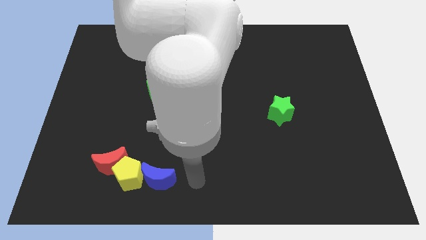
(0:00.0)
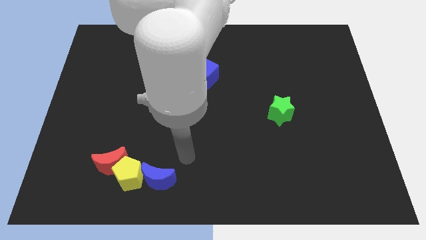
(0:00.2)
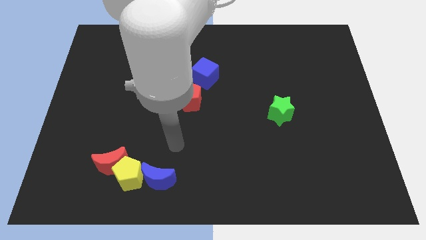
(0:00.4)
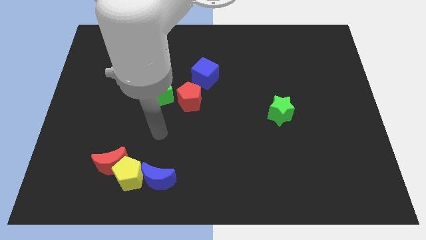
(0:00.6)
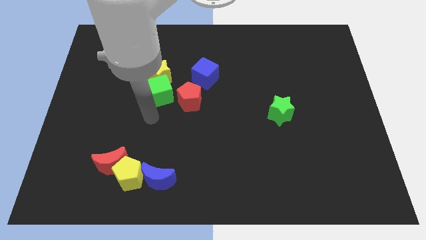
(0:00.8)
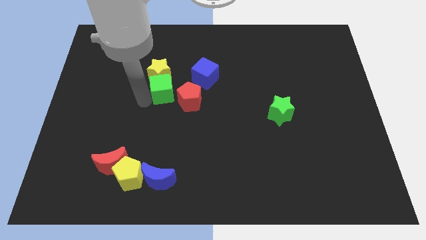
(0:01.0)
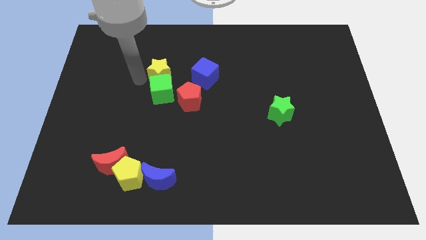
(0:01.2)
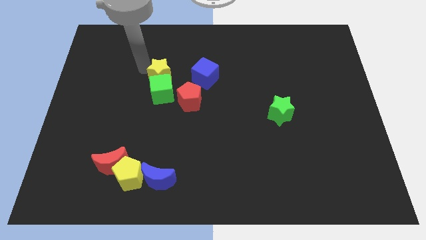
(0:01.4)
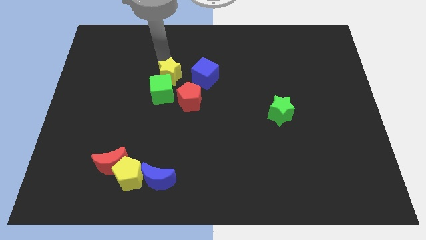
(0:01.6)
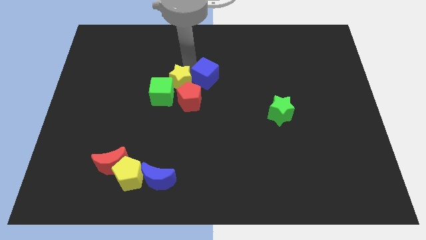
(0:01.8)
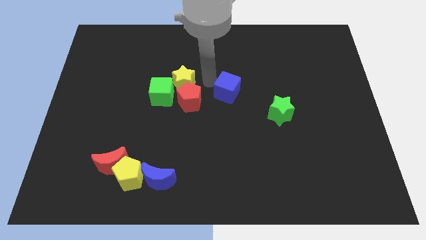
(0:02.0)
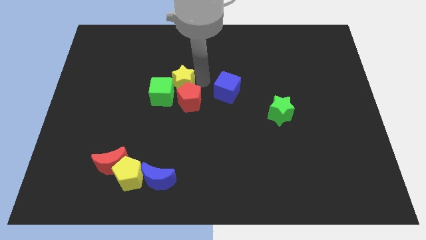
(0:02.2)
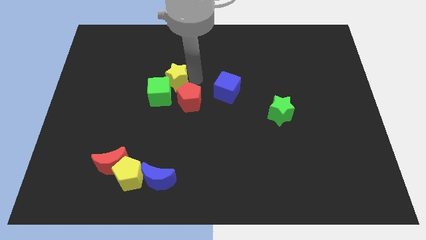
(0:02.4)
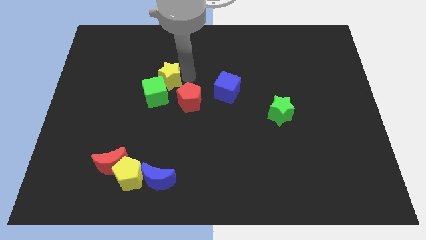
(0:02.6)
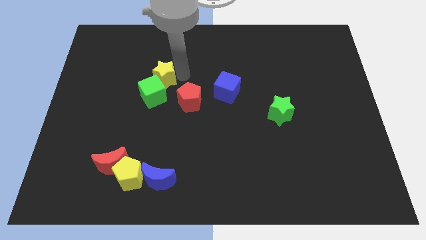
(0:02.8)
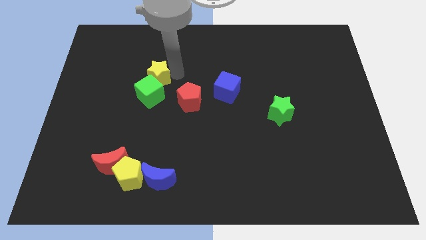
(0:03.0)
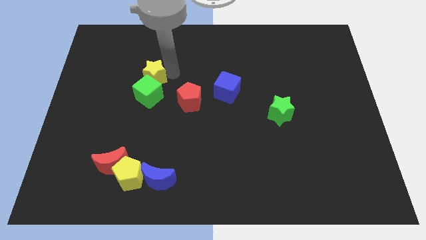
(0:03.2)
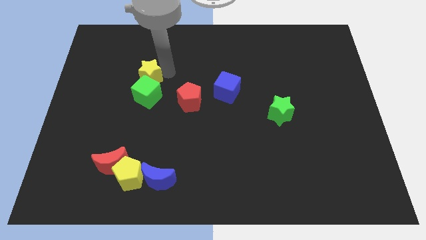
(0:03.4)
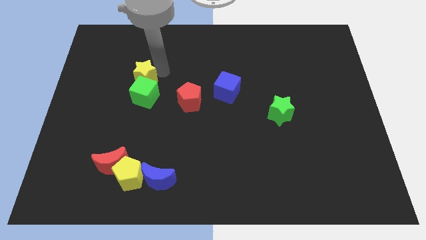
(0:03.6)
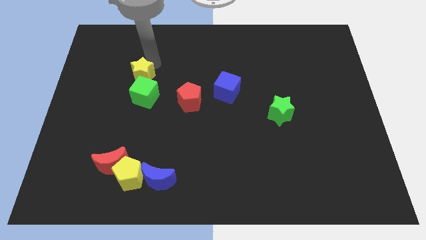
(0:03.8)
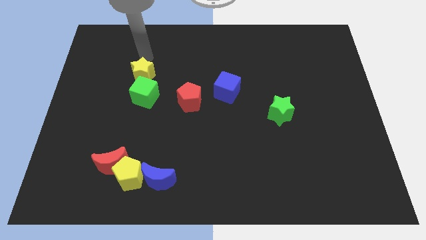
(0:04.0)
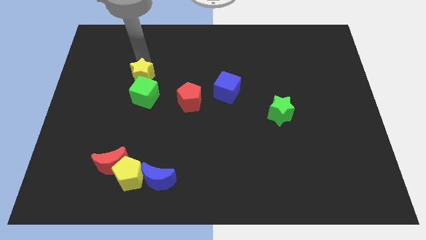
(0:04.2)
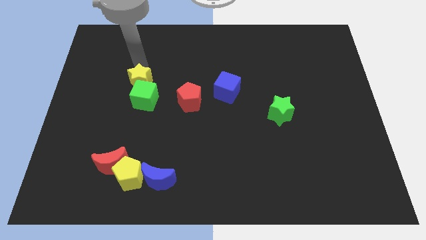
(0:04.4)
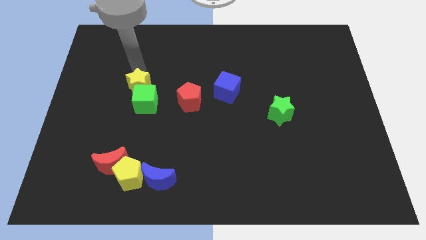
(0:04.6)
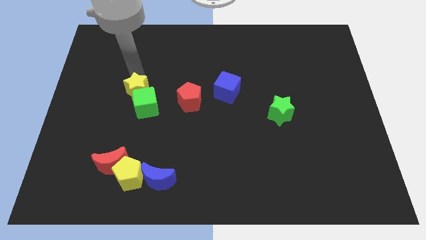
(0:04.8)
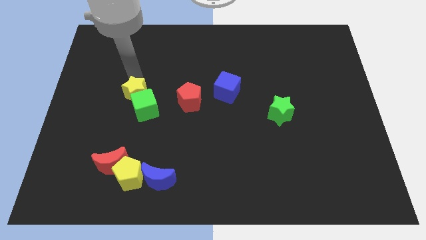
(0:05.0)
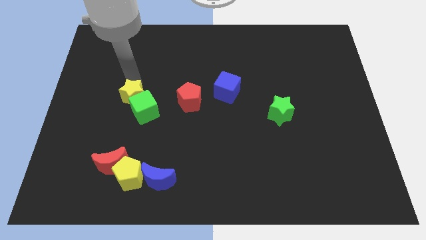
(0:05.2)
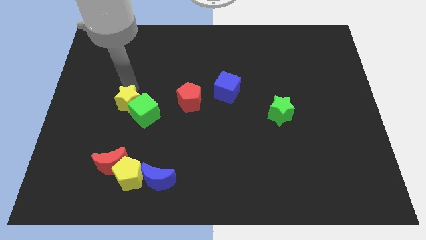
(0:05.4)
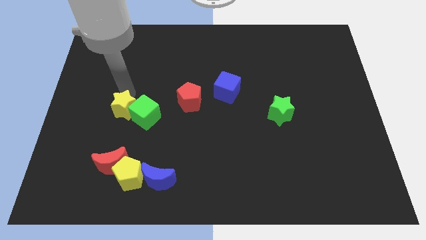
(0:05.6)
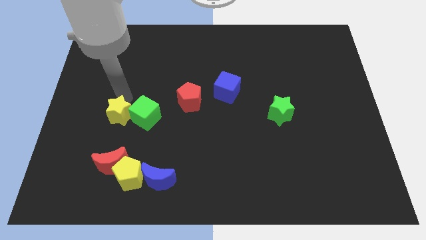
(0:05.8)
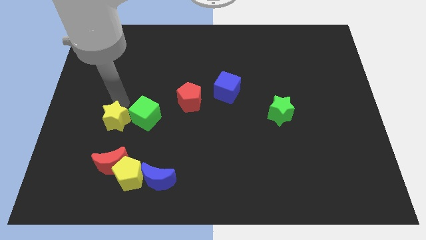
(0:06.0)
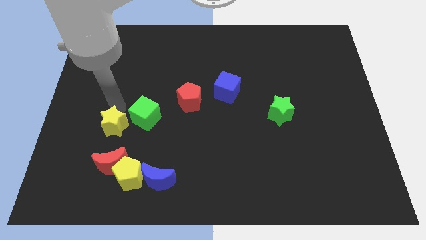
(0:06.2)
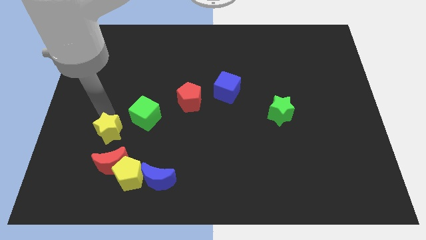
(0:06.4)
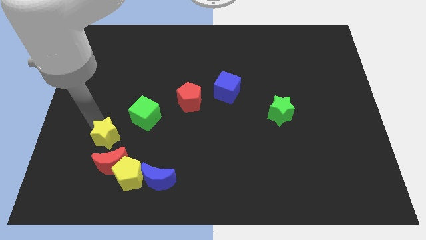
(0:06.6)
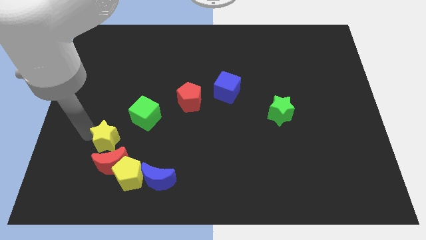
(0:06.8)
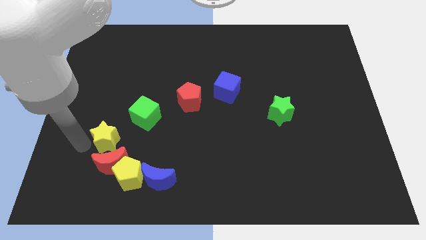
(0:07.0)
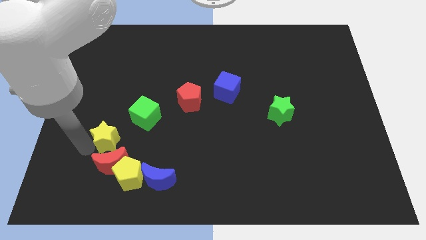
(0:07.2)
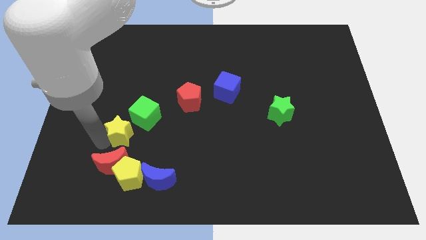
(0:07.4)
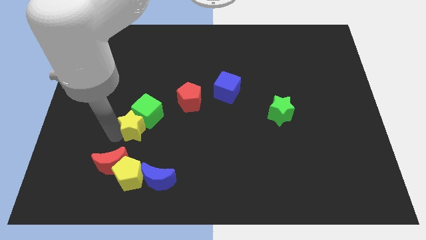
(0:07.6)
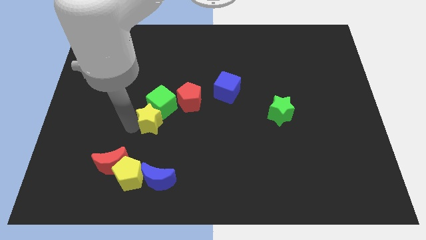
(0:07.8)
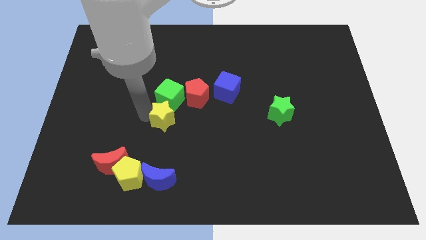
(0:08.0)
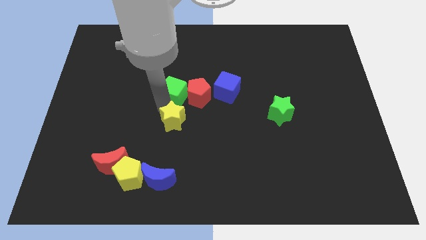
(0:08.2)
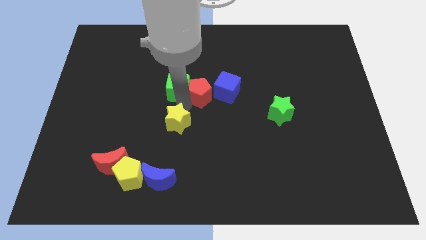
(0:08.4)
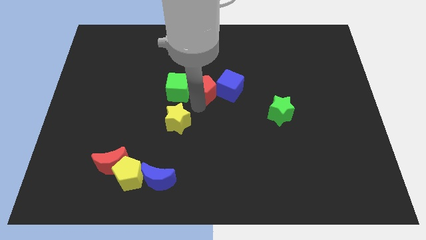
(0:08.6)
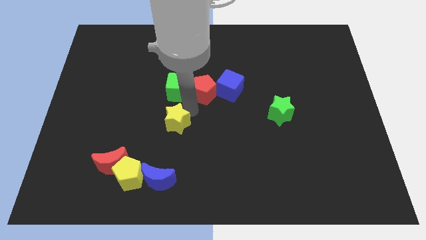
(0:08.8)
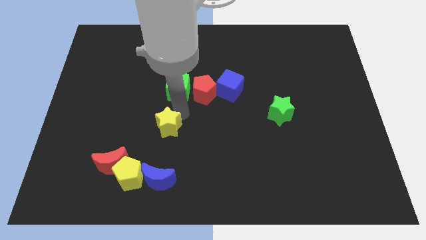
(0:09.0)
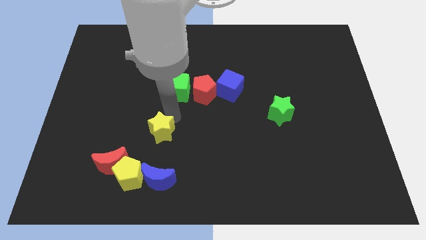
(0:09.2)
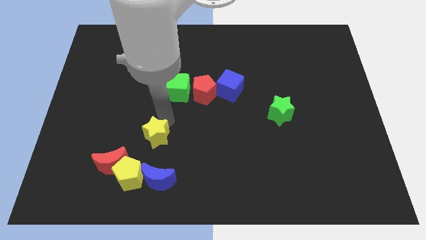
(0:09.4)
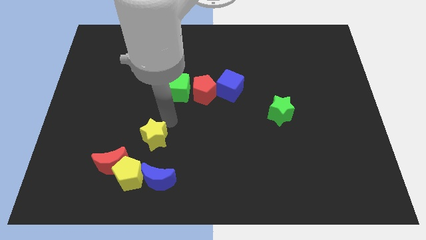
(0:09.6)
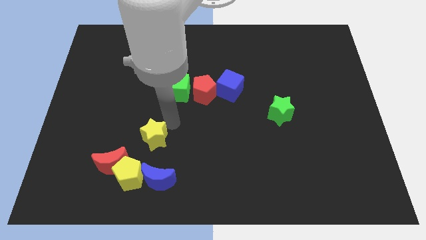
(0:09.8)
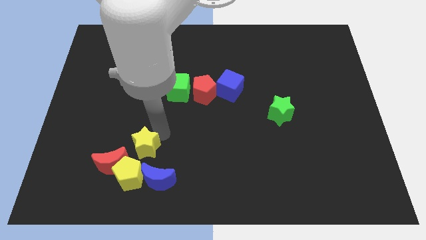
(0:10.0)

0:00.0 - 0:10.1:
slide the yellow star to the top left of the blue moon

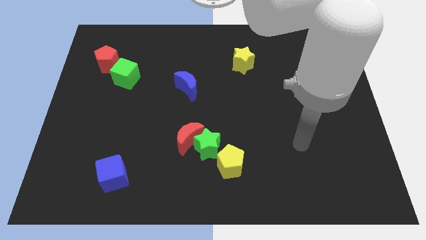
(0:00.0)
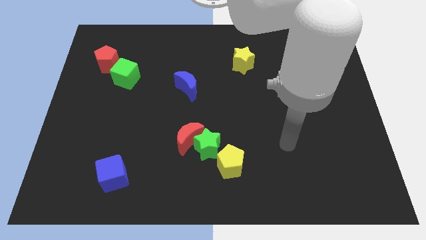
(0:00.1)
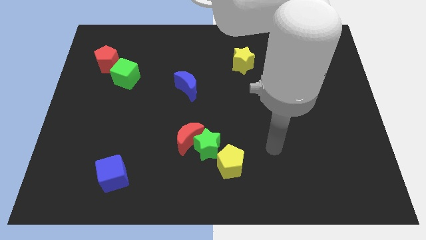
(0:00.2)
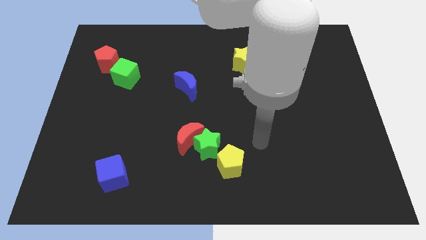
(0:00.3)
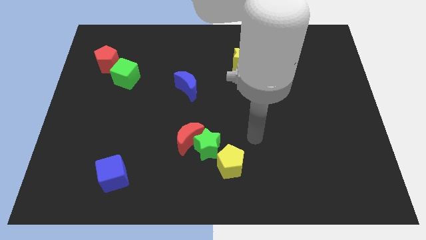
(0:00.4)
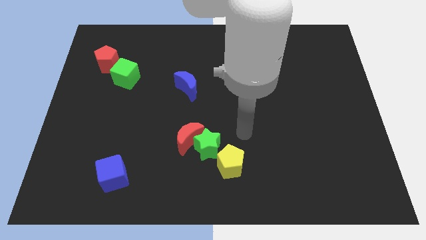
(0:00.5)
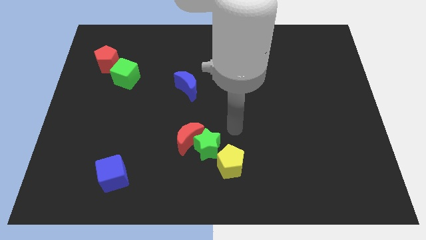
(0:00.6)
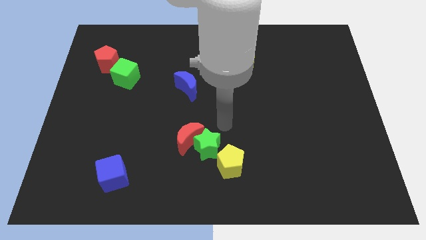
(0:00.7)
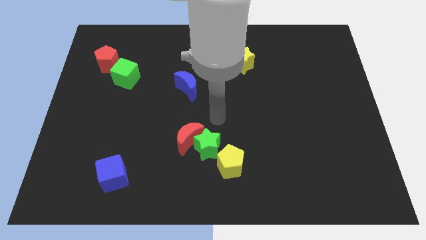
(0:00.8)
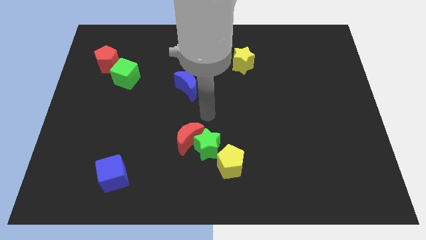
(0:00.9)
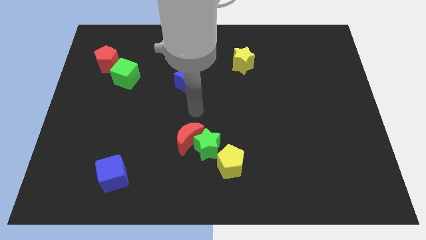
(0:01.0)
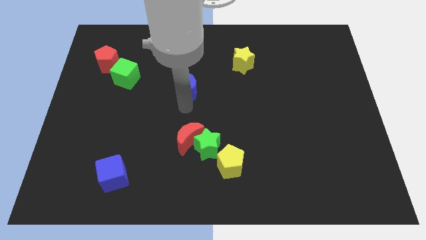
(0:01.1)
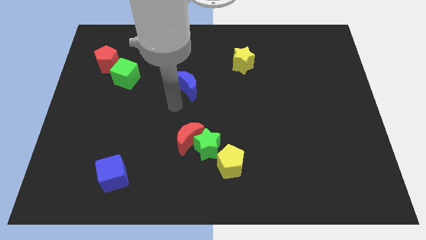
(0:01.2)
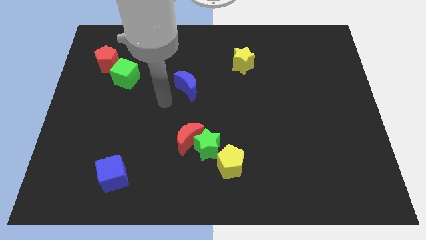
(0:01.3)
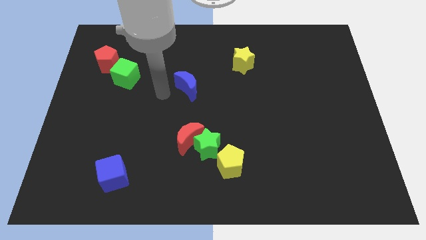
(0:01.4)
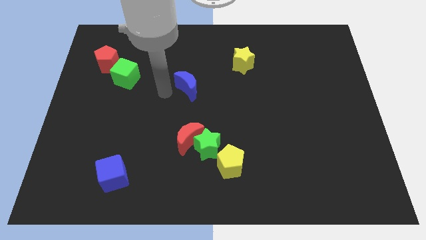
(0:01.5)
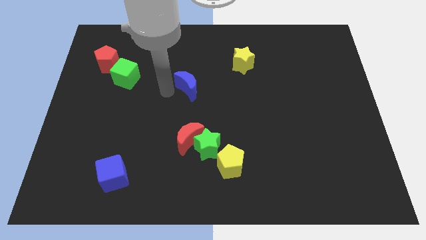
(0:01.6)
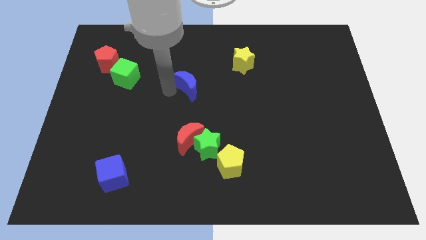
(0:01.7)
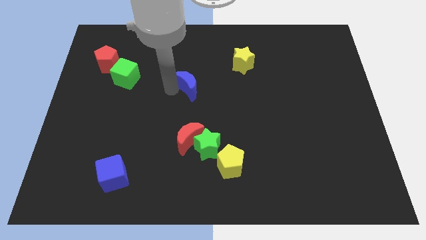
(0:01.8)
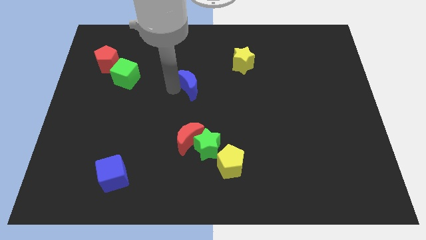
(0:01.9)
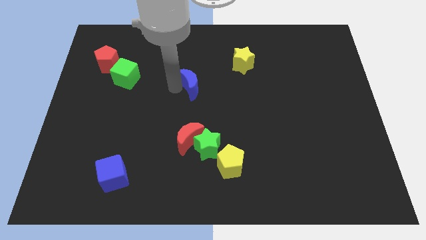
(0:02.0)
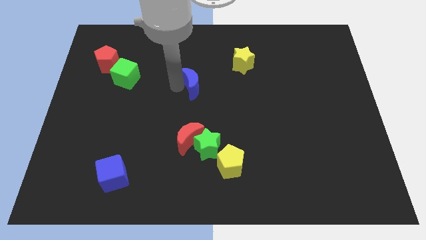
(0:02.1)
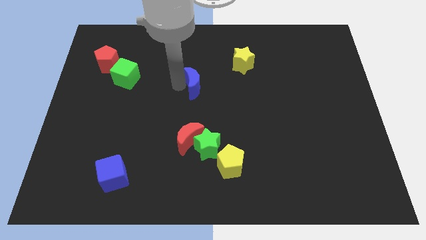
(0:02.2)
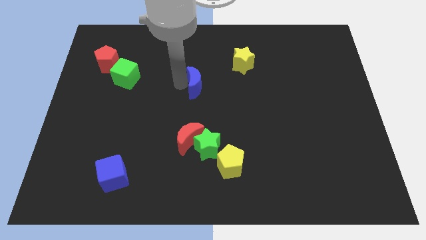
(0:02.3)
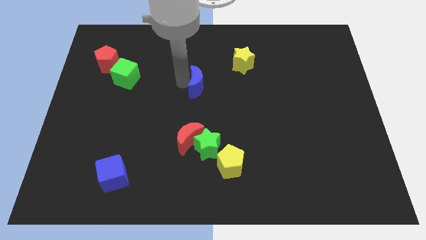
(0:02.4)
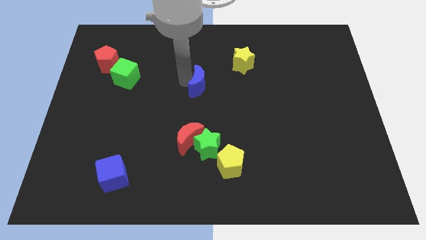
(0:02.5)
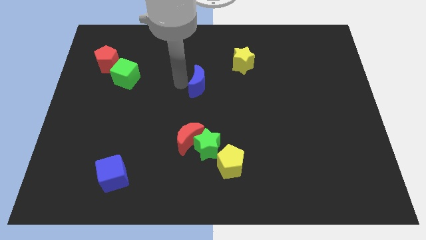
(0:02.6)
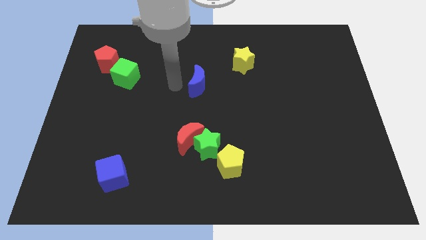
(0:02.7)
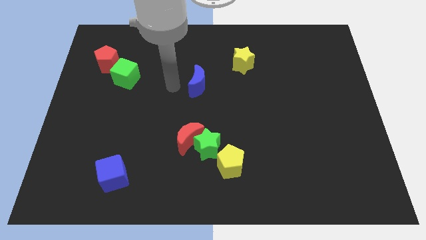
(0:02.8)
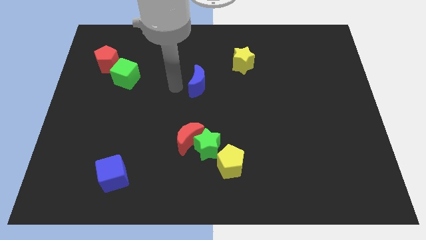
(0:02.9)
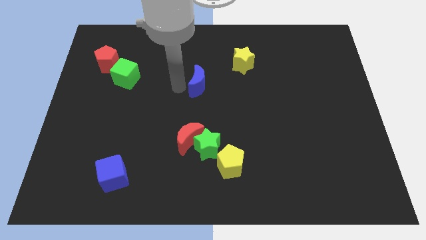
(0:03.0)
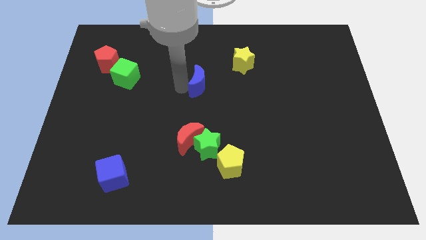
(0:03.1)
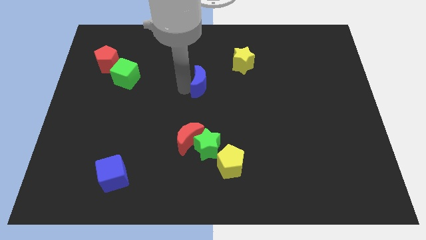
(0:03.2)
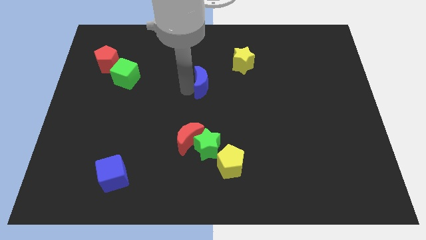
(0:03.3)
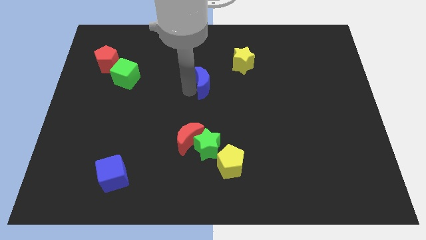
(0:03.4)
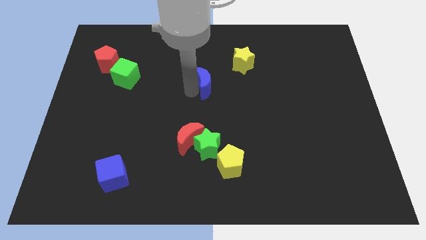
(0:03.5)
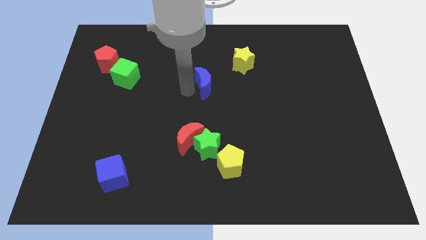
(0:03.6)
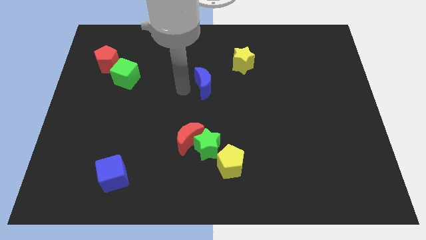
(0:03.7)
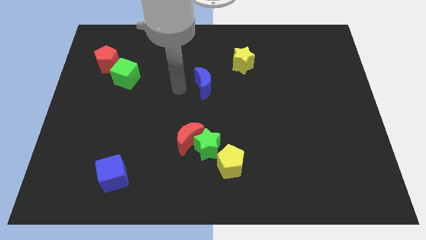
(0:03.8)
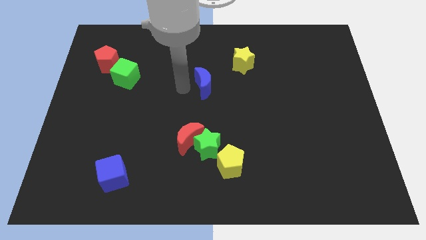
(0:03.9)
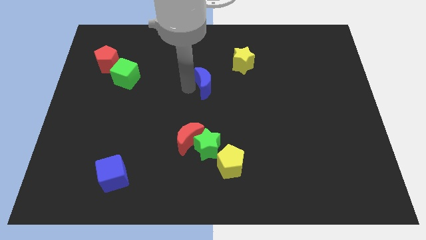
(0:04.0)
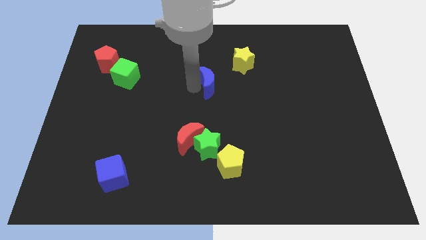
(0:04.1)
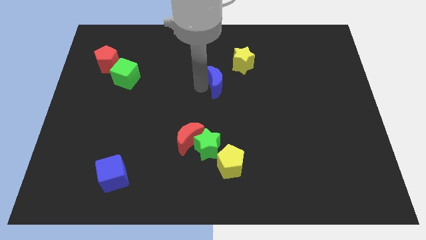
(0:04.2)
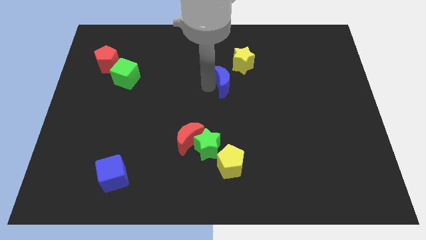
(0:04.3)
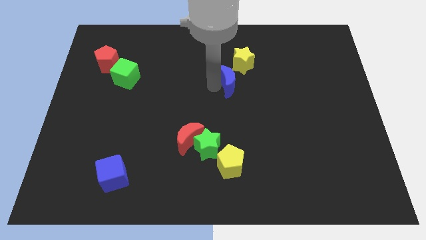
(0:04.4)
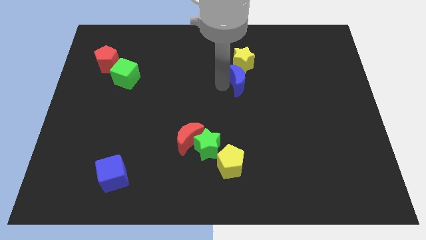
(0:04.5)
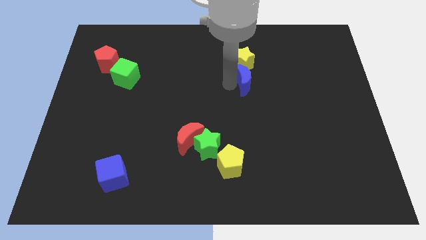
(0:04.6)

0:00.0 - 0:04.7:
push the blue moon to the bottom right side of the yellow star
